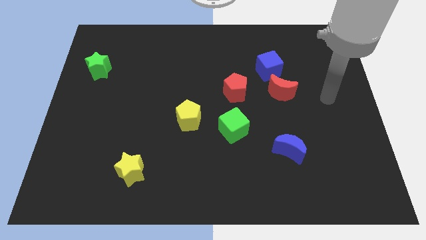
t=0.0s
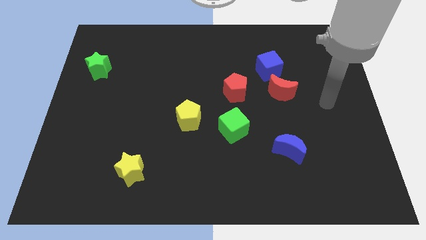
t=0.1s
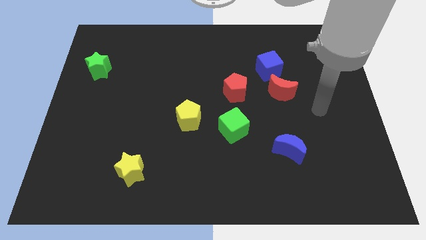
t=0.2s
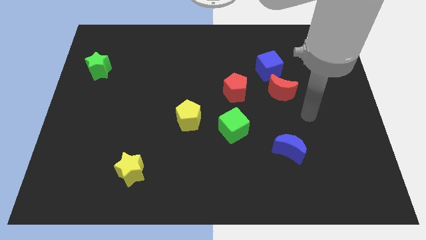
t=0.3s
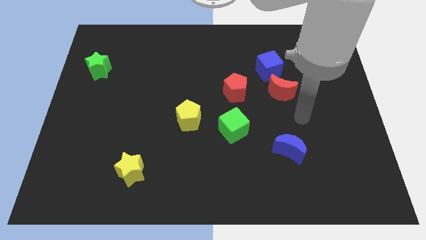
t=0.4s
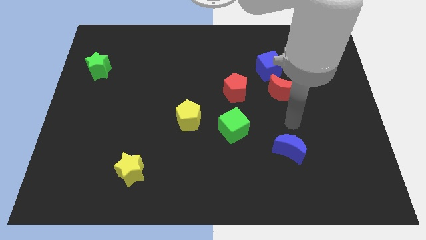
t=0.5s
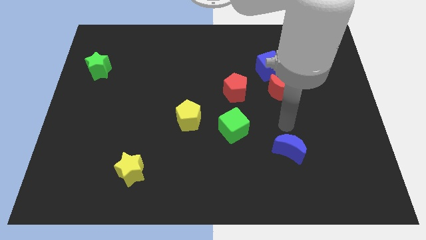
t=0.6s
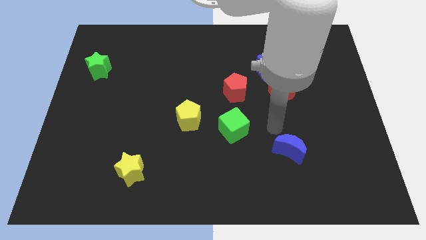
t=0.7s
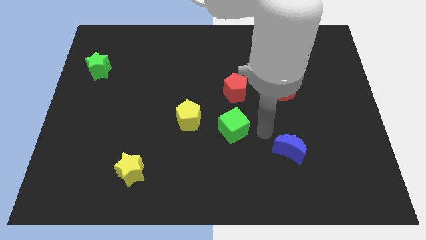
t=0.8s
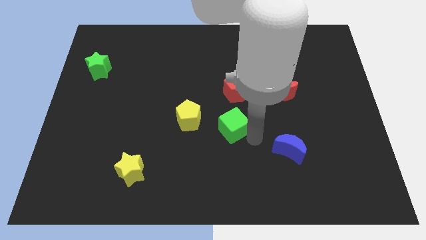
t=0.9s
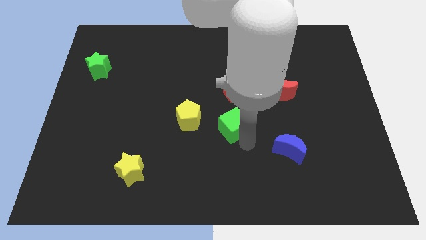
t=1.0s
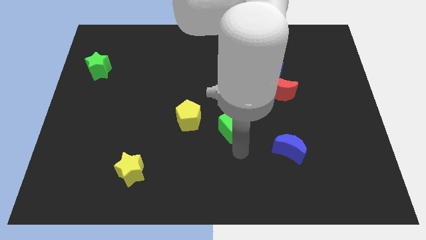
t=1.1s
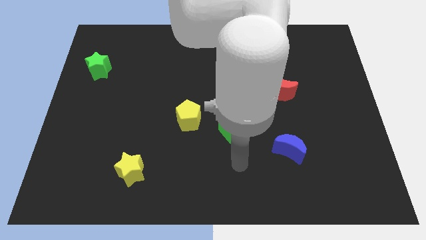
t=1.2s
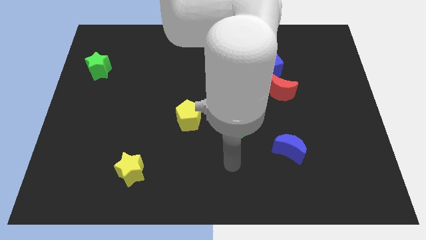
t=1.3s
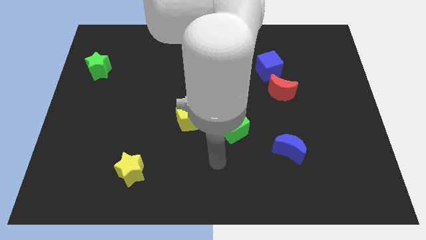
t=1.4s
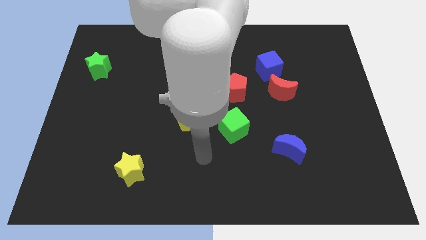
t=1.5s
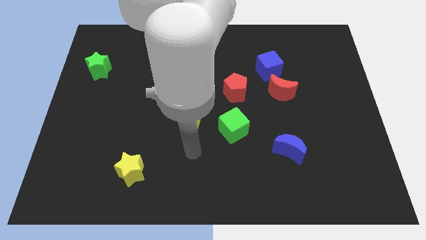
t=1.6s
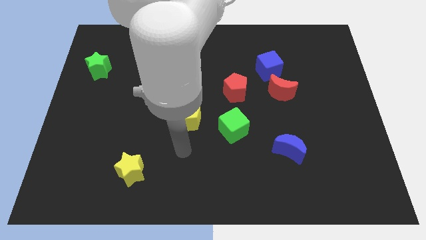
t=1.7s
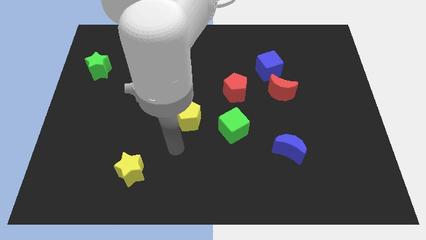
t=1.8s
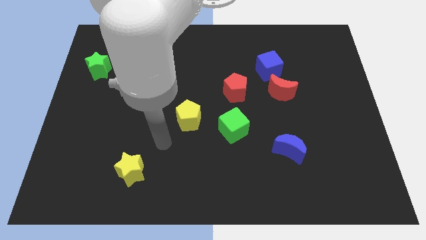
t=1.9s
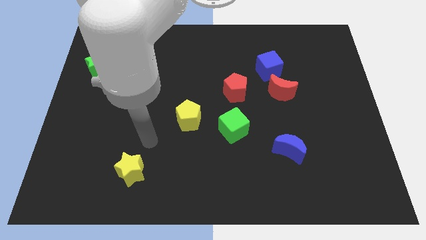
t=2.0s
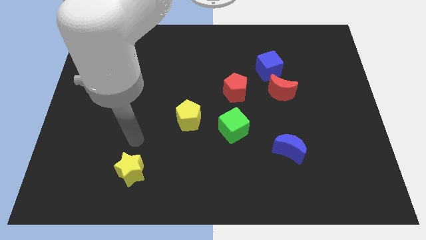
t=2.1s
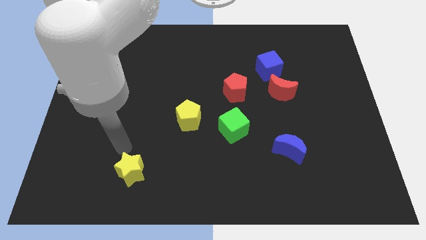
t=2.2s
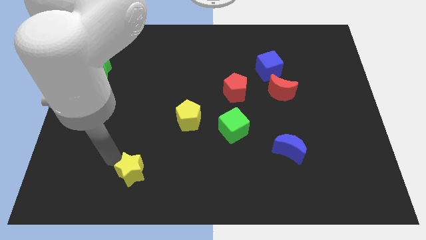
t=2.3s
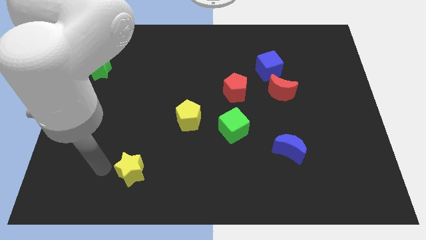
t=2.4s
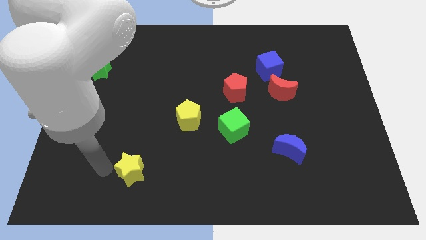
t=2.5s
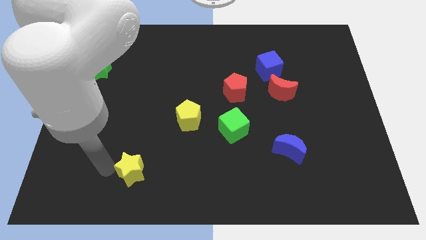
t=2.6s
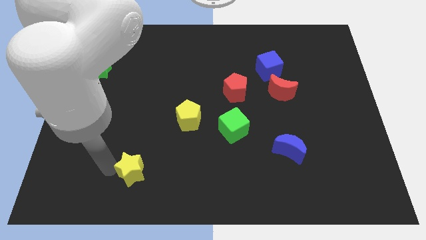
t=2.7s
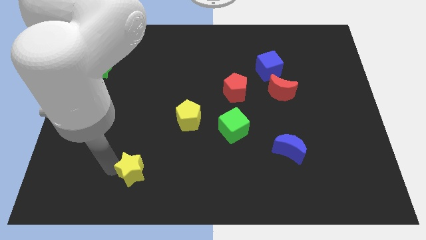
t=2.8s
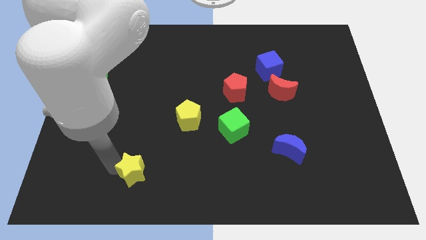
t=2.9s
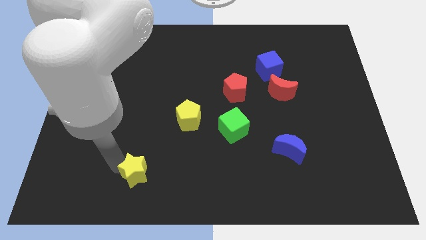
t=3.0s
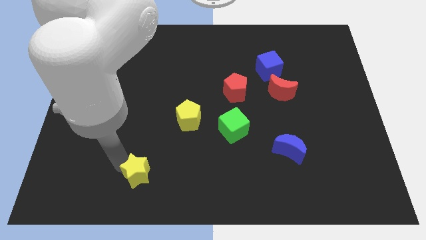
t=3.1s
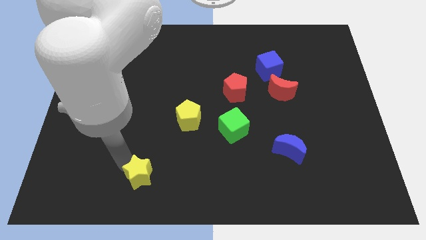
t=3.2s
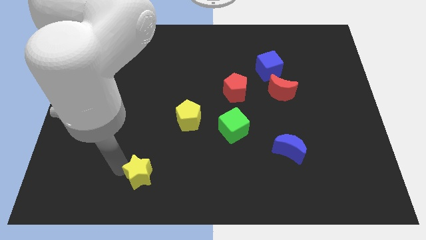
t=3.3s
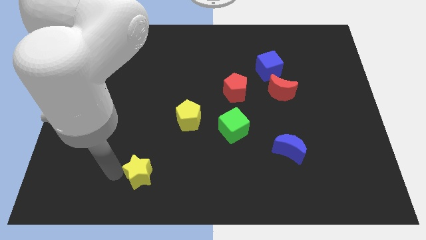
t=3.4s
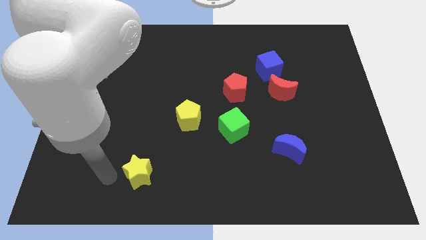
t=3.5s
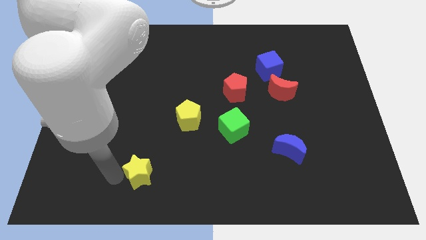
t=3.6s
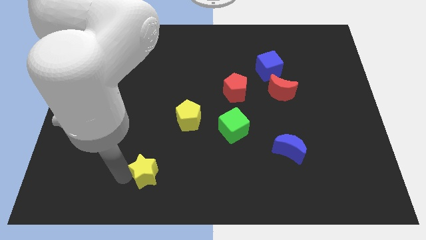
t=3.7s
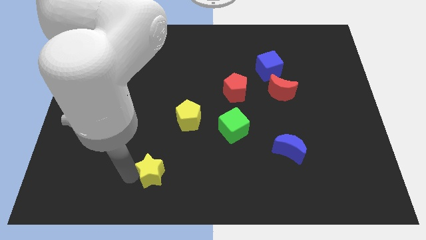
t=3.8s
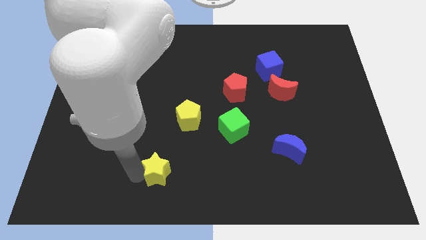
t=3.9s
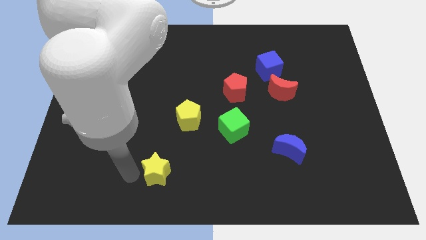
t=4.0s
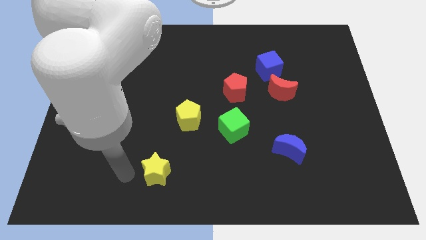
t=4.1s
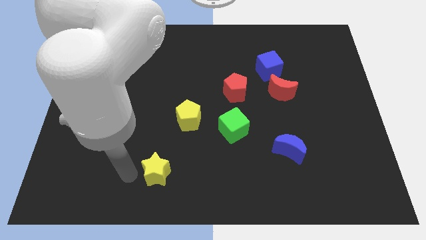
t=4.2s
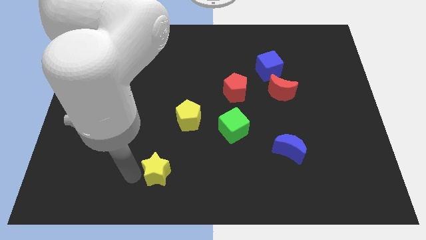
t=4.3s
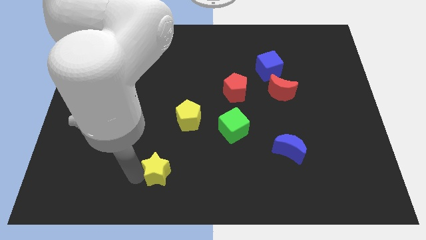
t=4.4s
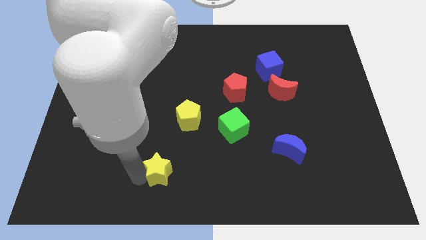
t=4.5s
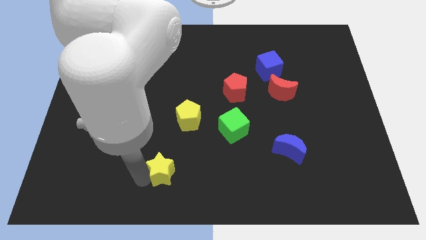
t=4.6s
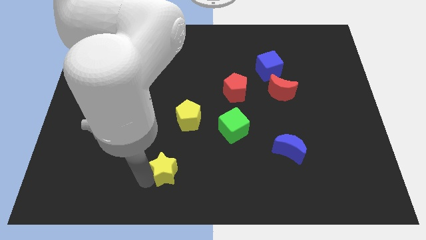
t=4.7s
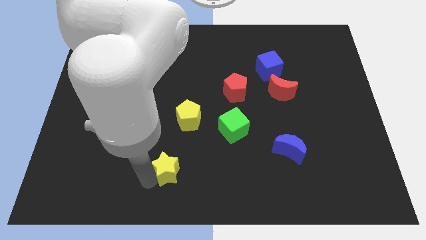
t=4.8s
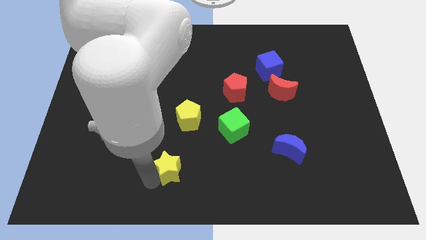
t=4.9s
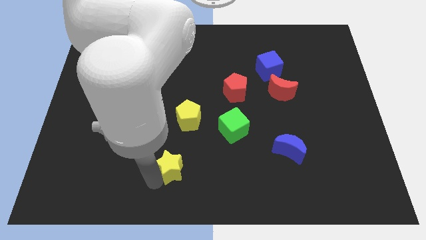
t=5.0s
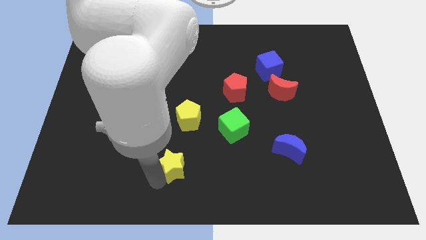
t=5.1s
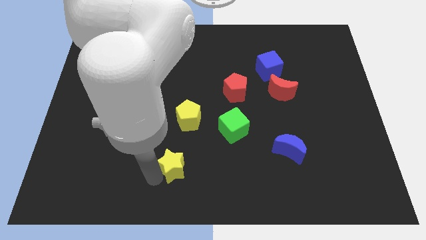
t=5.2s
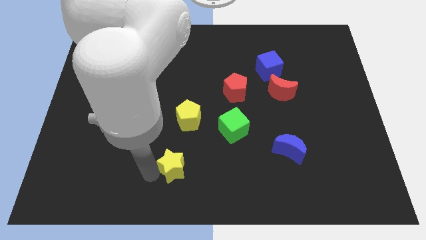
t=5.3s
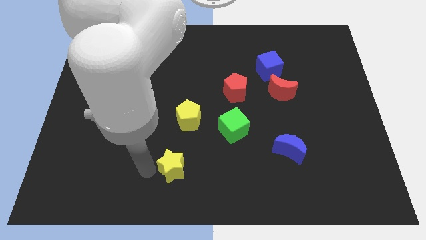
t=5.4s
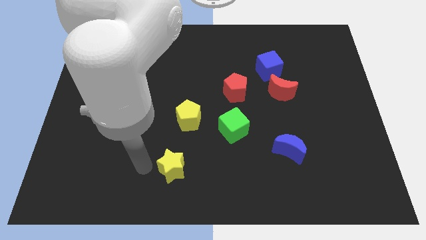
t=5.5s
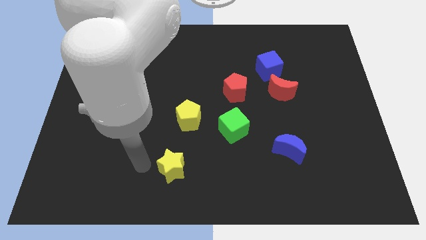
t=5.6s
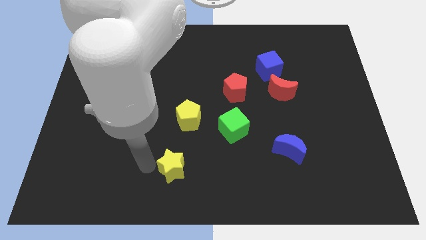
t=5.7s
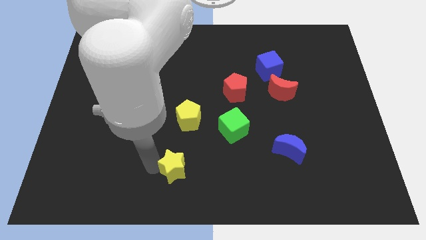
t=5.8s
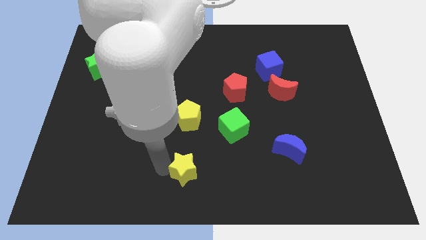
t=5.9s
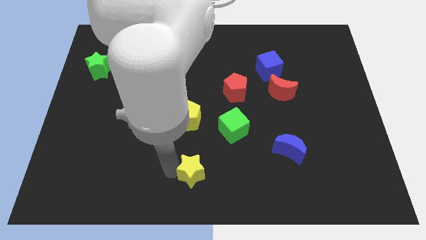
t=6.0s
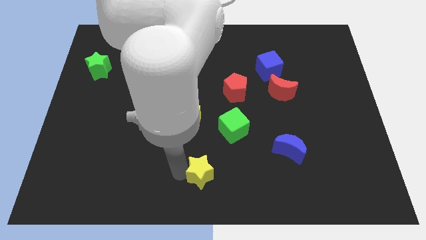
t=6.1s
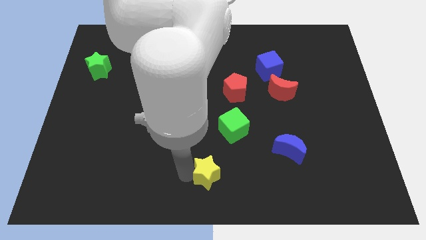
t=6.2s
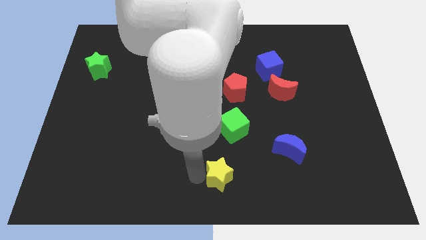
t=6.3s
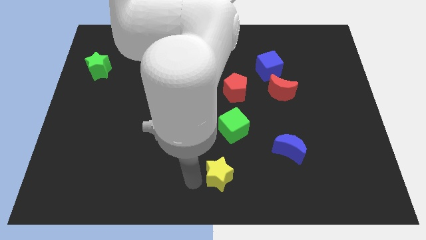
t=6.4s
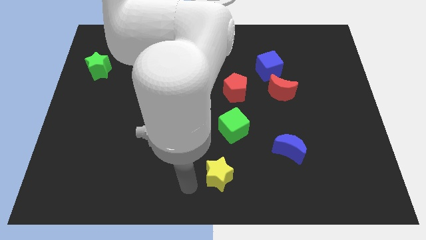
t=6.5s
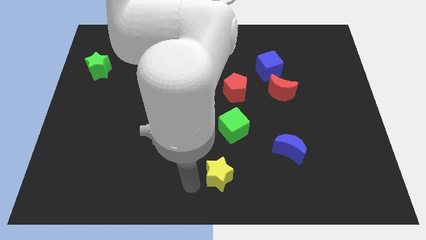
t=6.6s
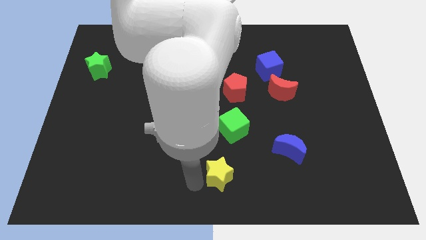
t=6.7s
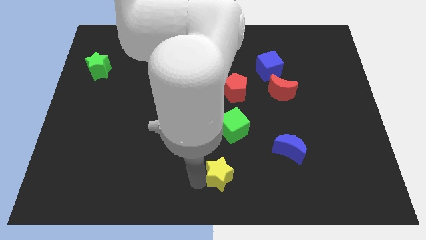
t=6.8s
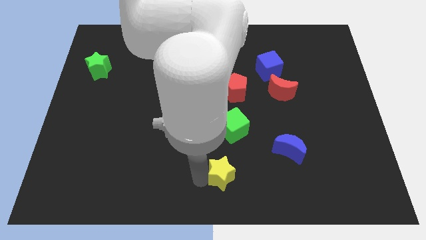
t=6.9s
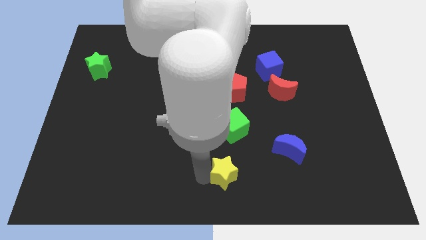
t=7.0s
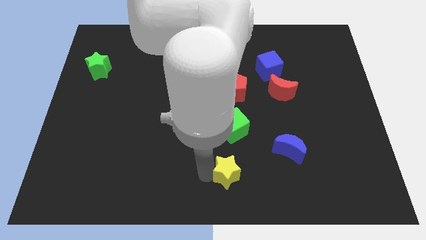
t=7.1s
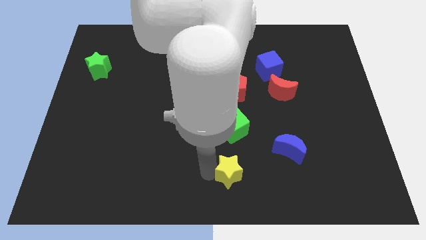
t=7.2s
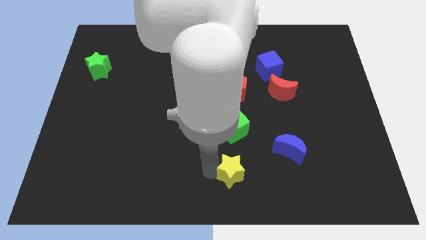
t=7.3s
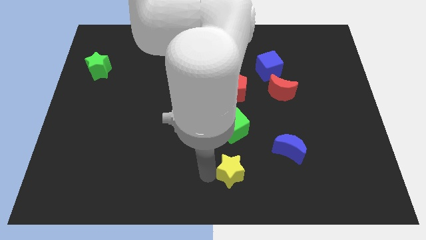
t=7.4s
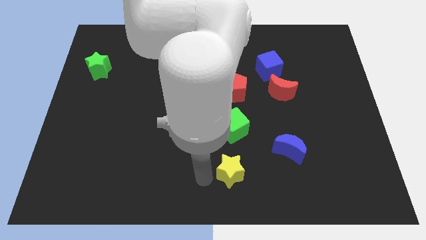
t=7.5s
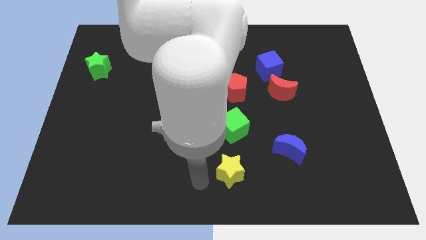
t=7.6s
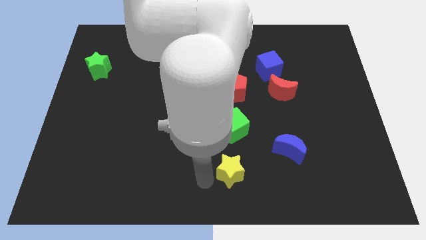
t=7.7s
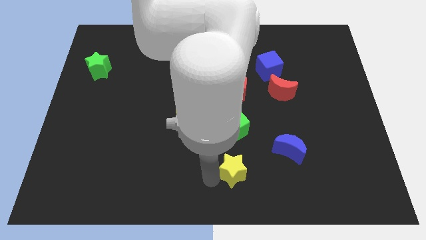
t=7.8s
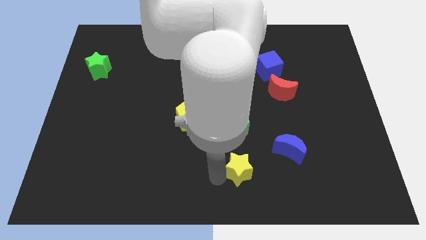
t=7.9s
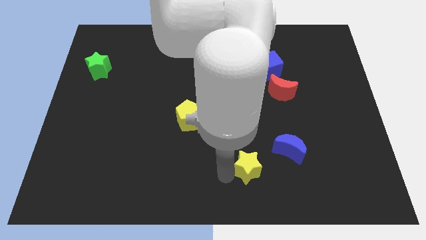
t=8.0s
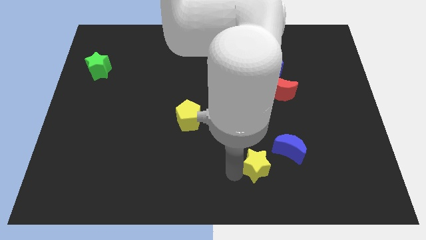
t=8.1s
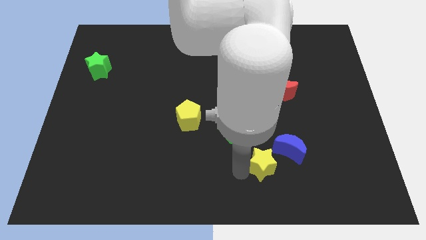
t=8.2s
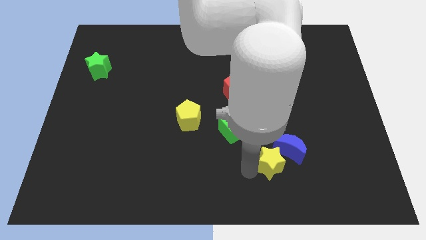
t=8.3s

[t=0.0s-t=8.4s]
slide the yellow star next to the blue moon
